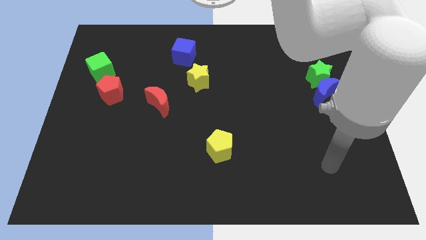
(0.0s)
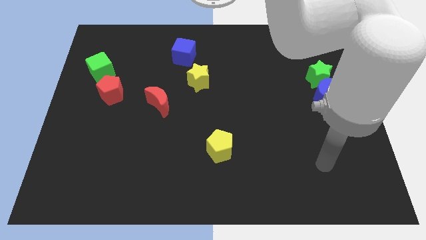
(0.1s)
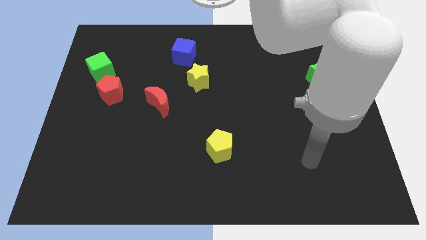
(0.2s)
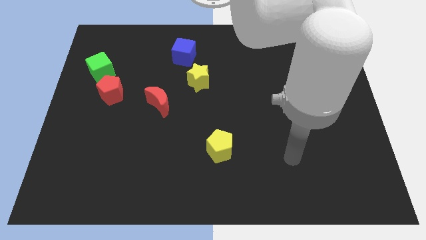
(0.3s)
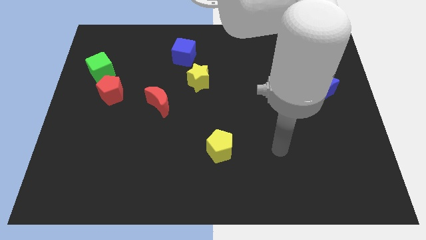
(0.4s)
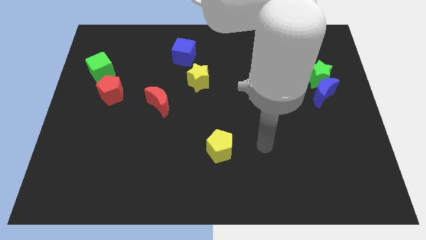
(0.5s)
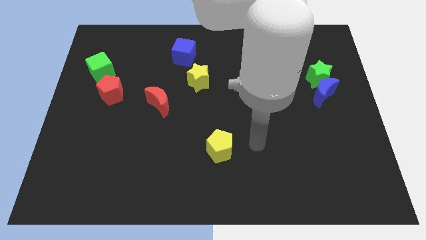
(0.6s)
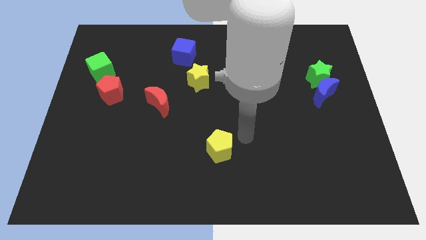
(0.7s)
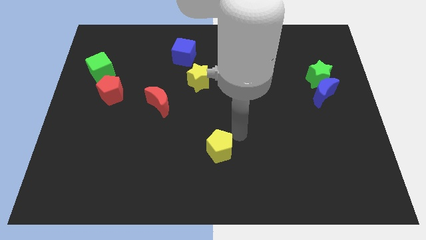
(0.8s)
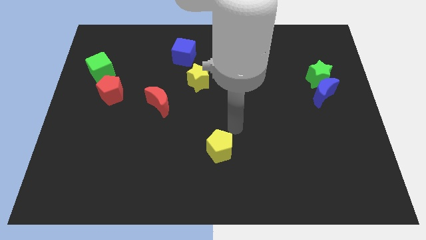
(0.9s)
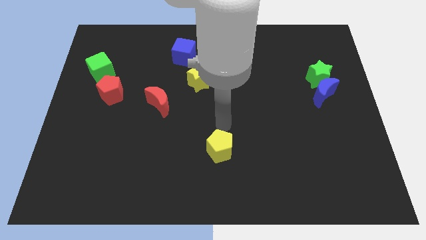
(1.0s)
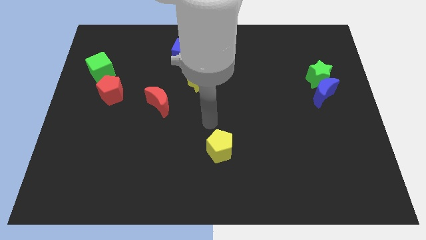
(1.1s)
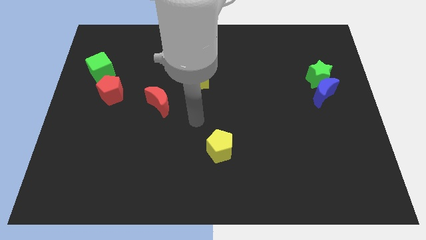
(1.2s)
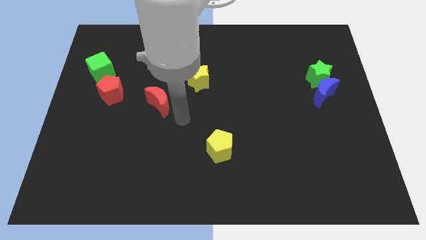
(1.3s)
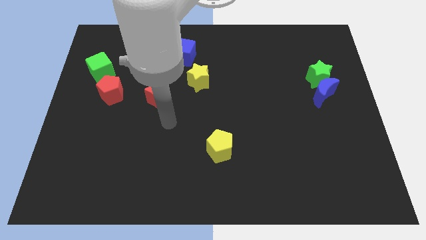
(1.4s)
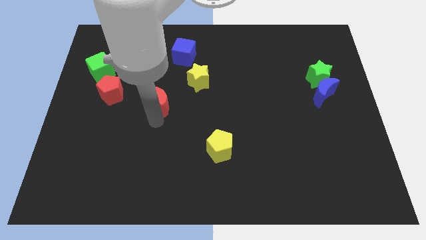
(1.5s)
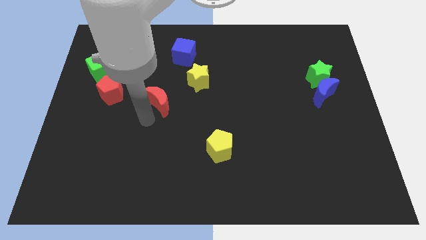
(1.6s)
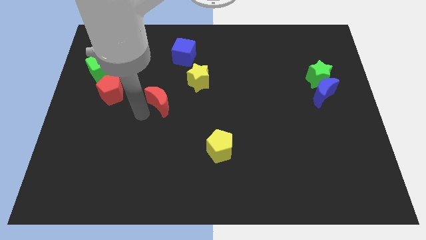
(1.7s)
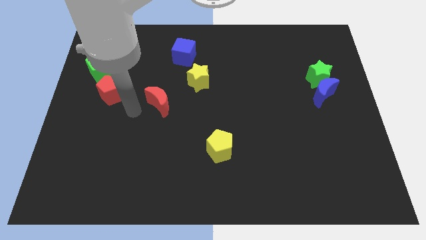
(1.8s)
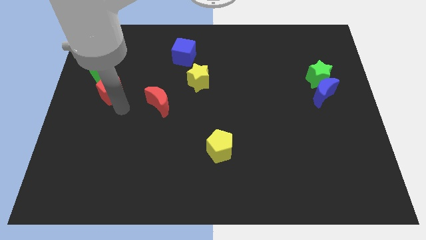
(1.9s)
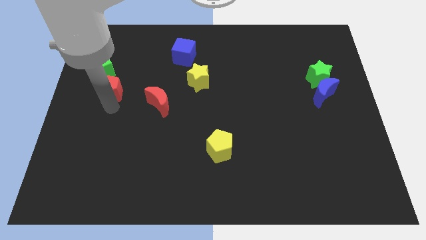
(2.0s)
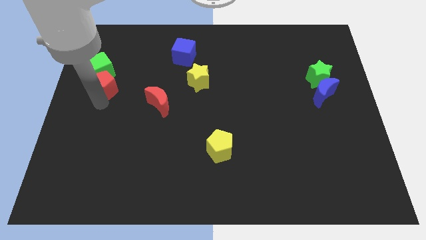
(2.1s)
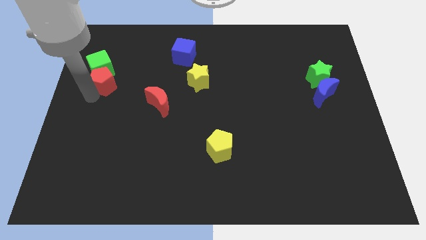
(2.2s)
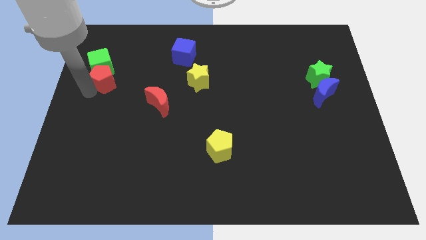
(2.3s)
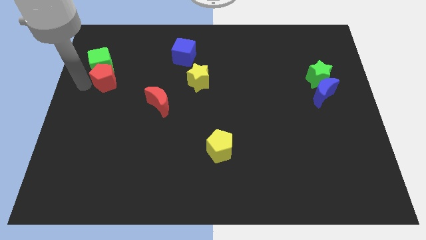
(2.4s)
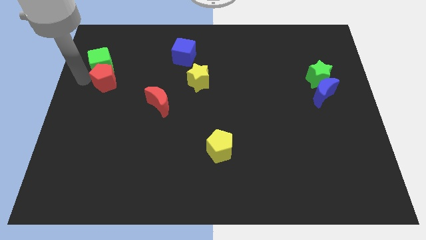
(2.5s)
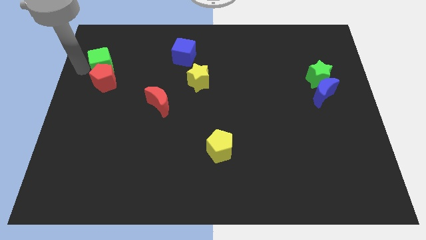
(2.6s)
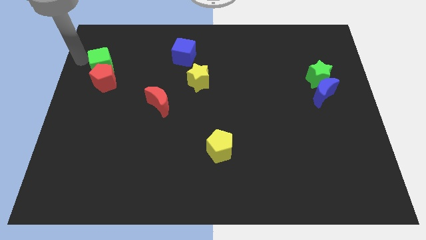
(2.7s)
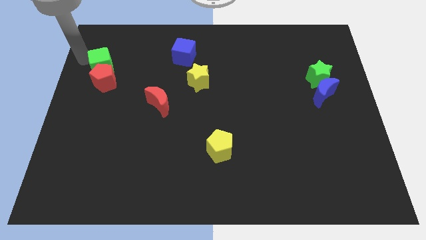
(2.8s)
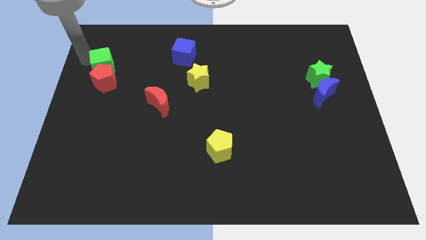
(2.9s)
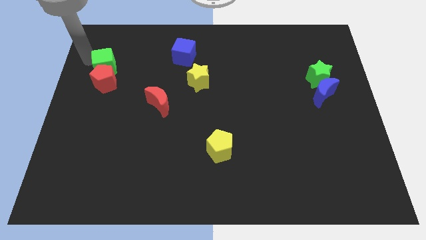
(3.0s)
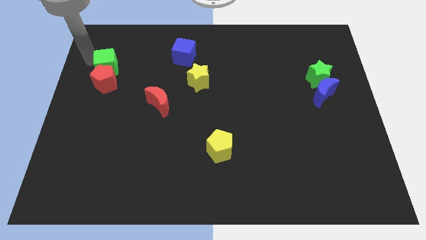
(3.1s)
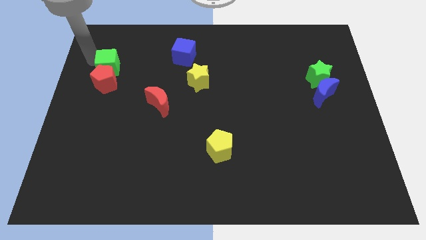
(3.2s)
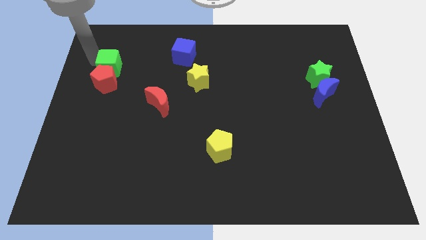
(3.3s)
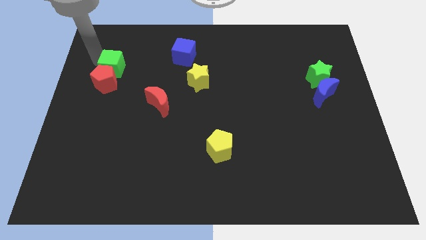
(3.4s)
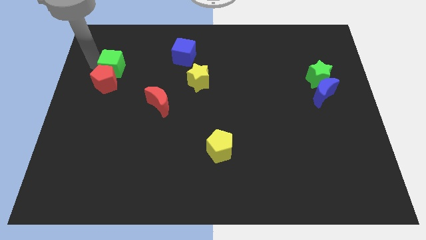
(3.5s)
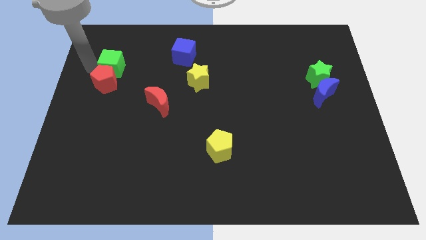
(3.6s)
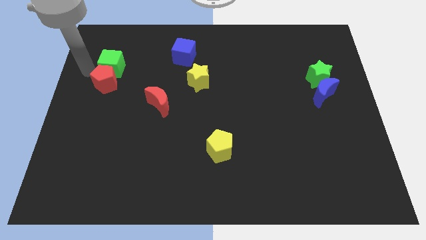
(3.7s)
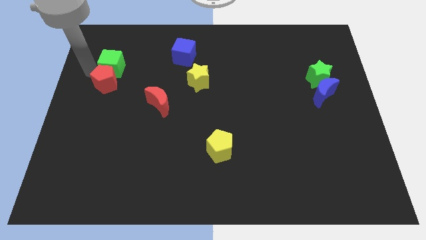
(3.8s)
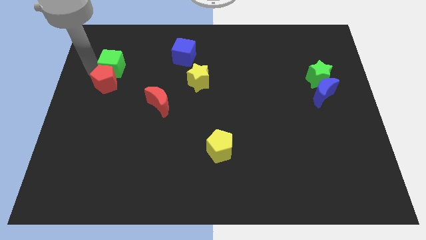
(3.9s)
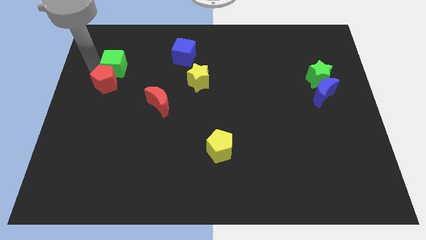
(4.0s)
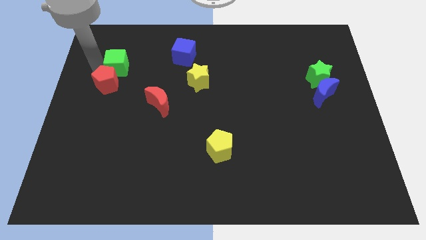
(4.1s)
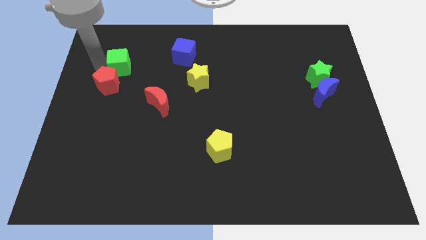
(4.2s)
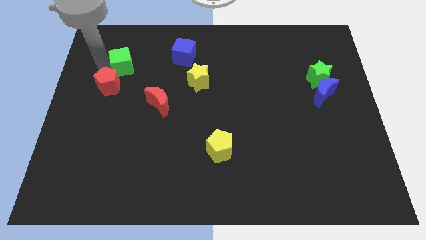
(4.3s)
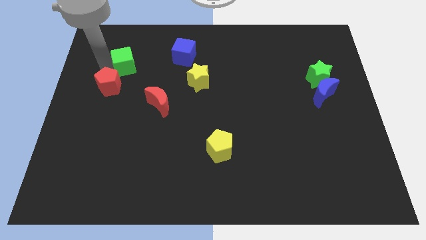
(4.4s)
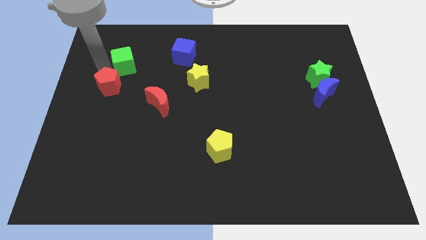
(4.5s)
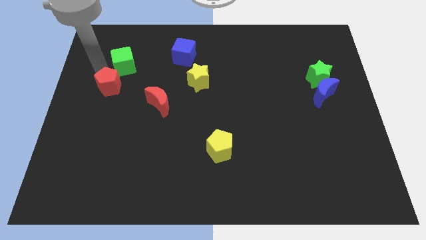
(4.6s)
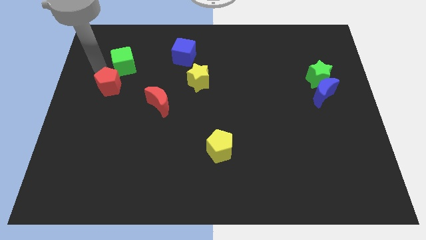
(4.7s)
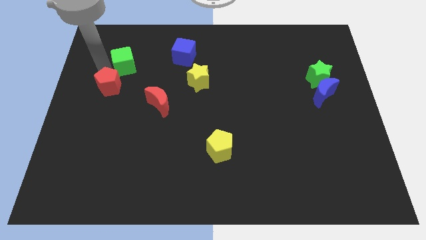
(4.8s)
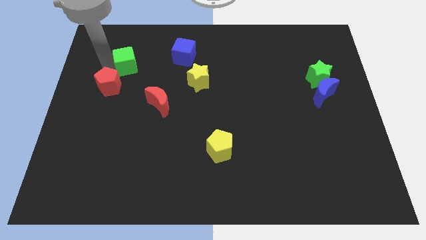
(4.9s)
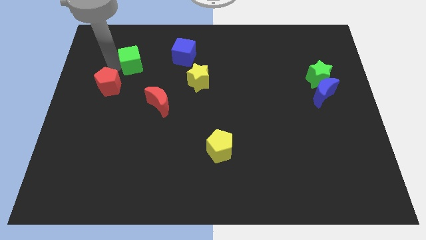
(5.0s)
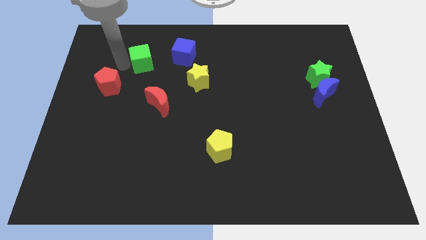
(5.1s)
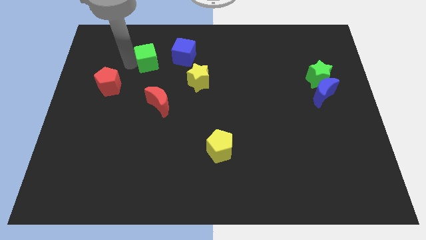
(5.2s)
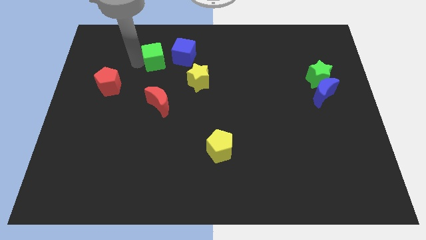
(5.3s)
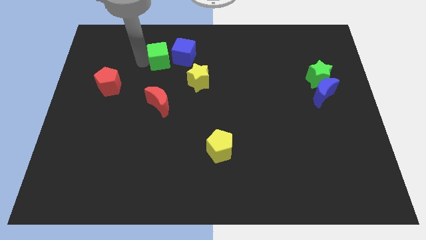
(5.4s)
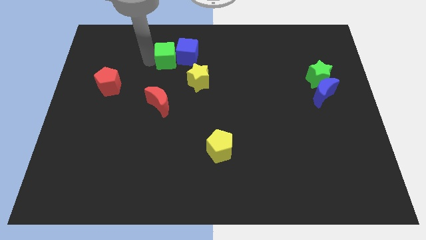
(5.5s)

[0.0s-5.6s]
move the green cube to the blue cube

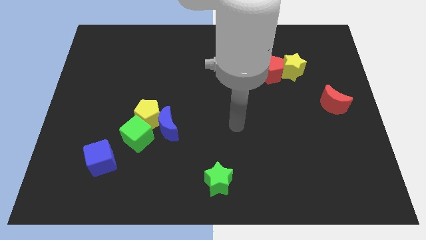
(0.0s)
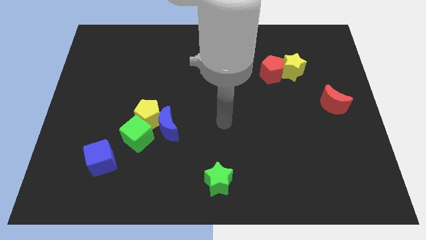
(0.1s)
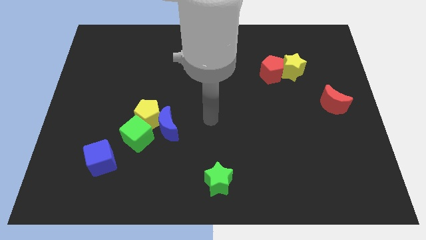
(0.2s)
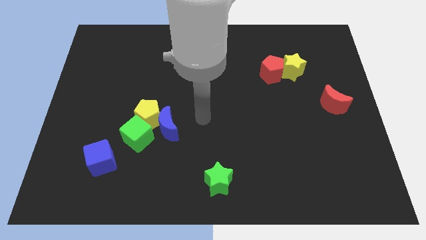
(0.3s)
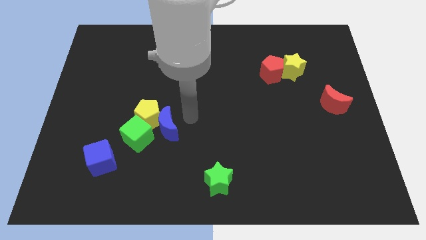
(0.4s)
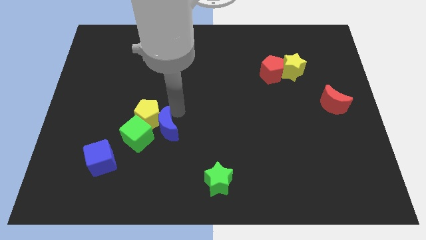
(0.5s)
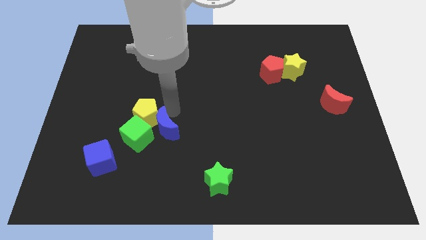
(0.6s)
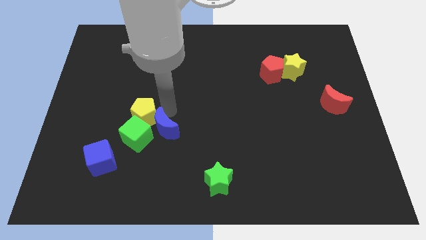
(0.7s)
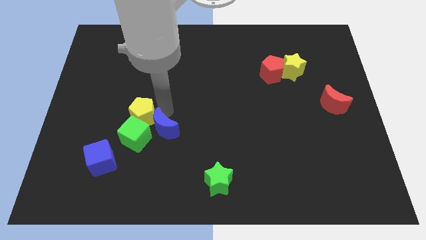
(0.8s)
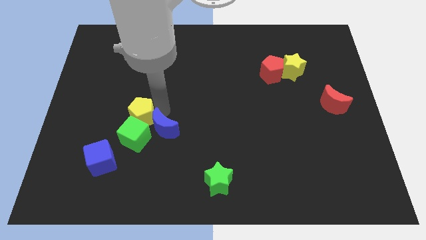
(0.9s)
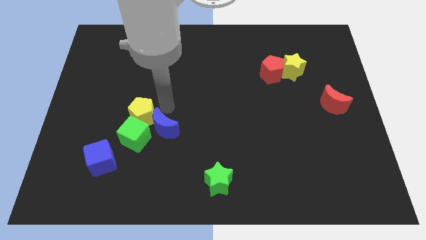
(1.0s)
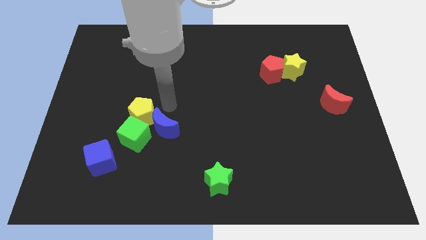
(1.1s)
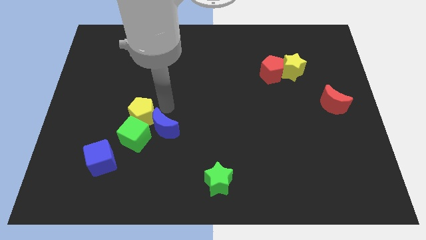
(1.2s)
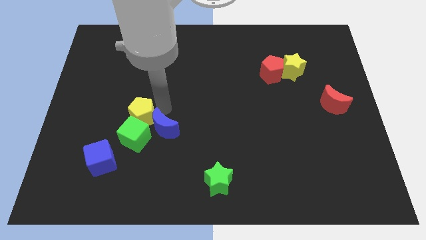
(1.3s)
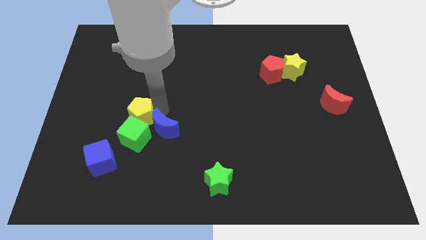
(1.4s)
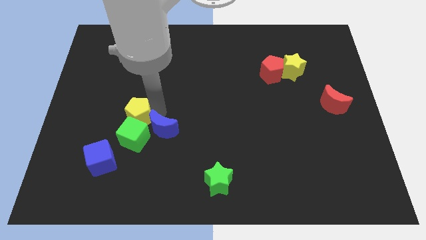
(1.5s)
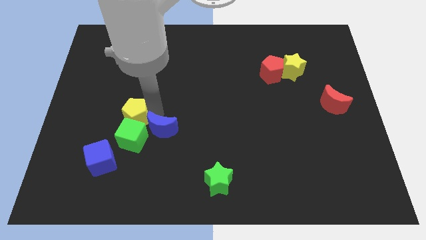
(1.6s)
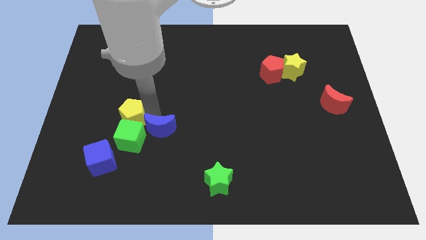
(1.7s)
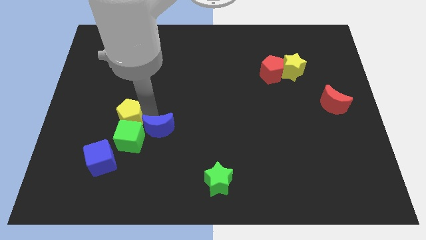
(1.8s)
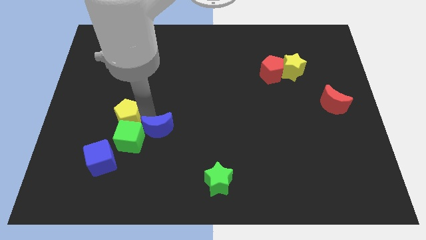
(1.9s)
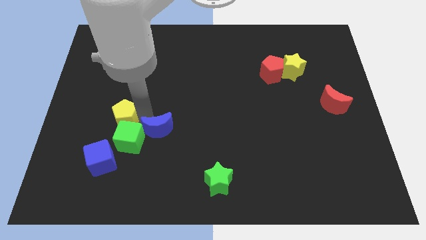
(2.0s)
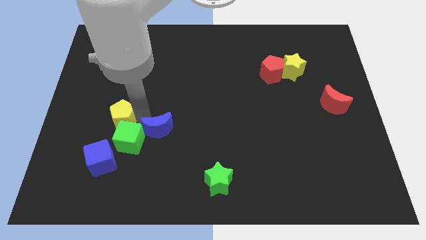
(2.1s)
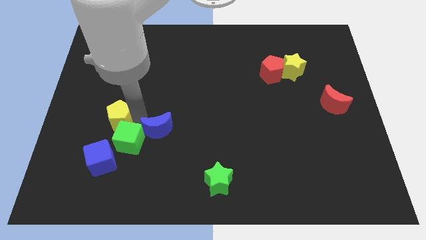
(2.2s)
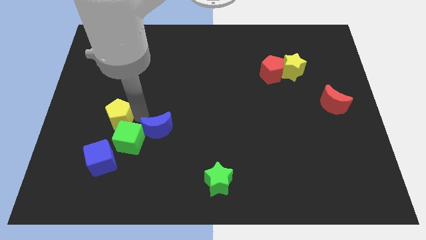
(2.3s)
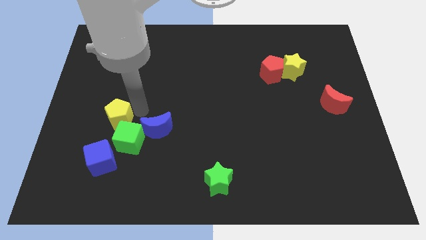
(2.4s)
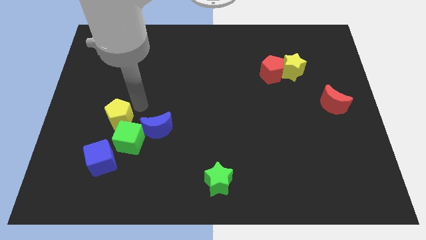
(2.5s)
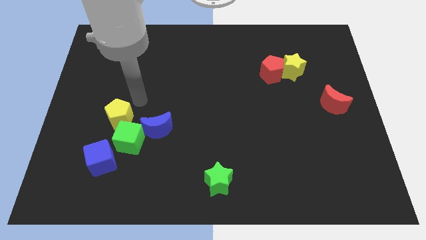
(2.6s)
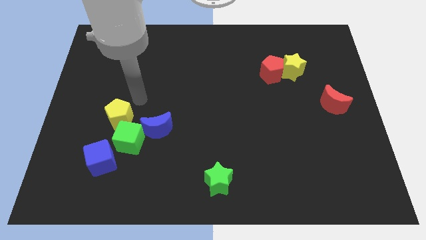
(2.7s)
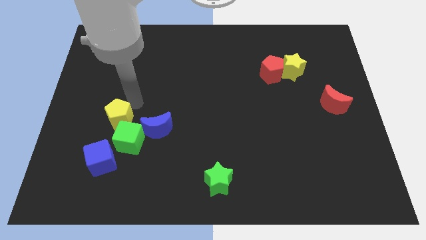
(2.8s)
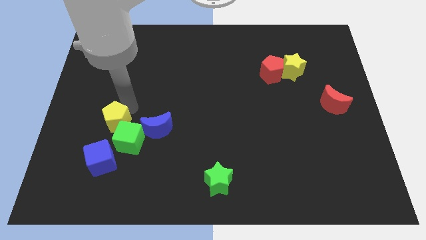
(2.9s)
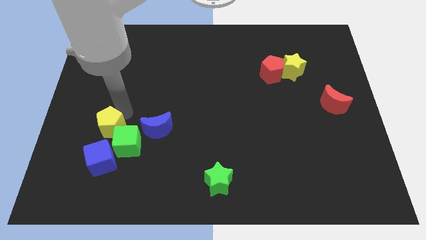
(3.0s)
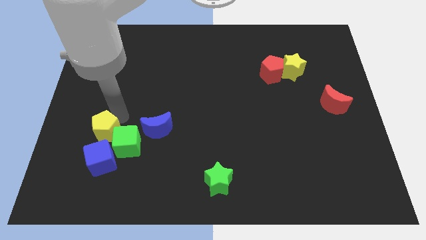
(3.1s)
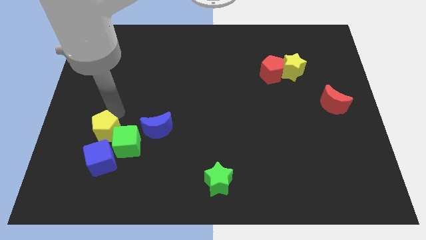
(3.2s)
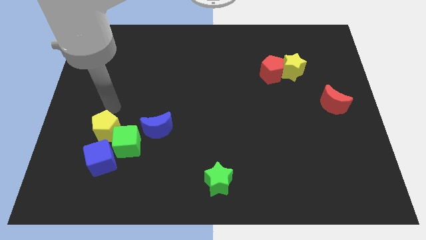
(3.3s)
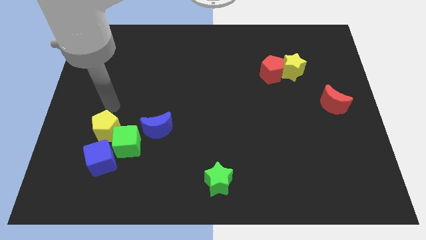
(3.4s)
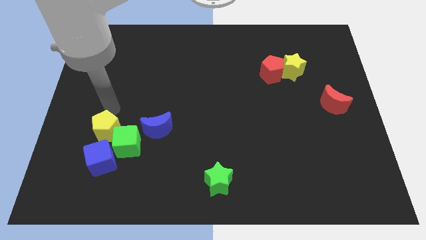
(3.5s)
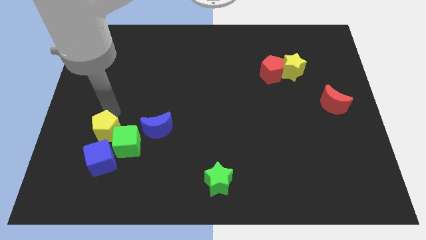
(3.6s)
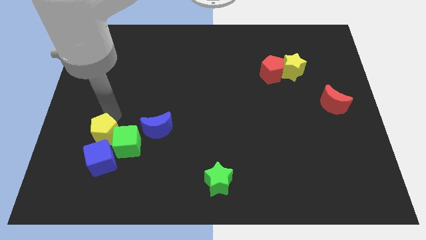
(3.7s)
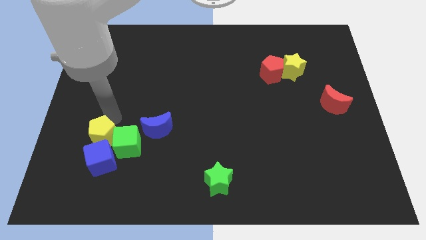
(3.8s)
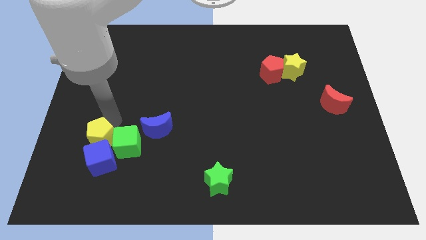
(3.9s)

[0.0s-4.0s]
put the yellow pentagon next to the blue cube
